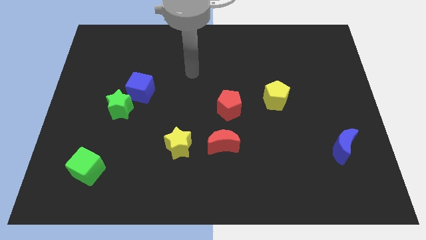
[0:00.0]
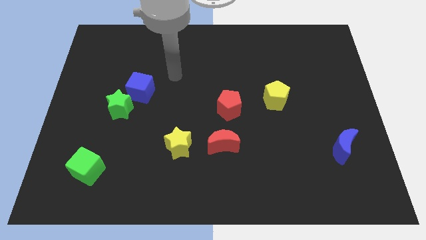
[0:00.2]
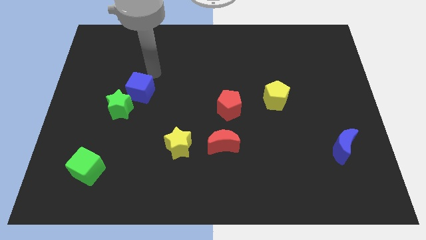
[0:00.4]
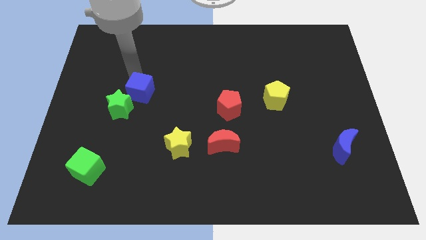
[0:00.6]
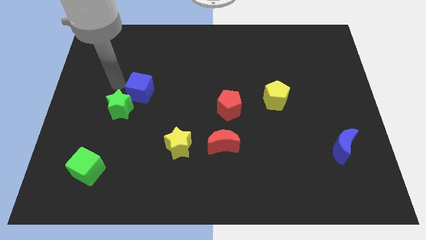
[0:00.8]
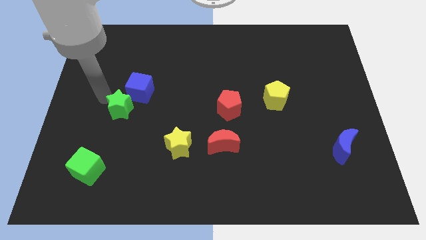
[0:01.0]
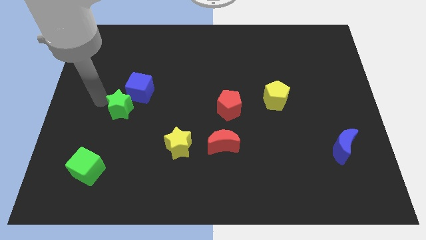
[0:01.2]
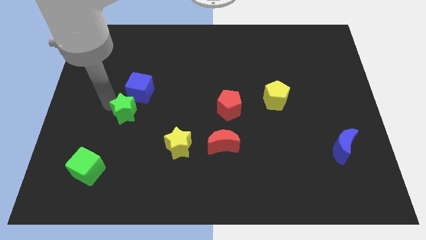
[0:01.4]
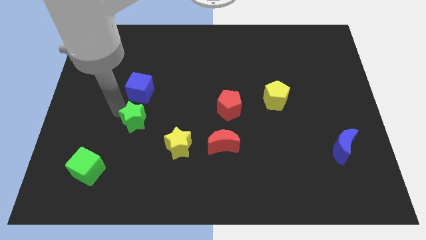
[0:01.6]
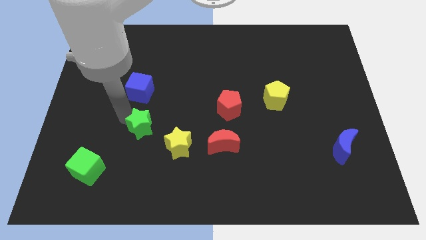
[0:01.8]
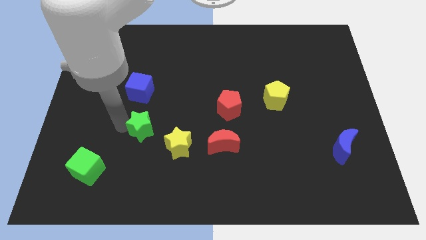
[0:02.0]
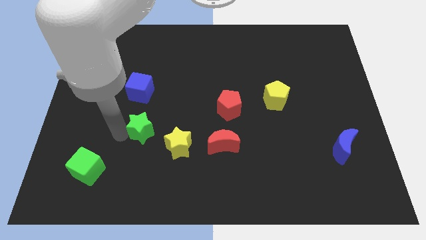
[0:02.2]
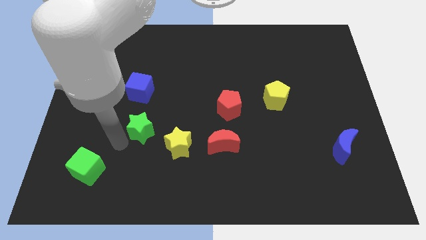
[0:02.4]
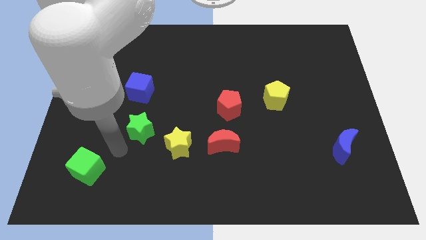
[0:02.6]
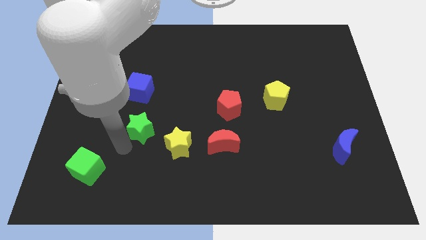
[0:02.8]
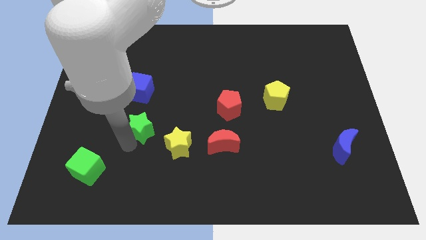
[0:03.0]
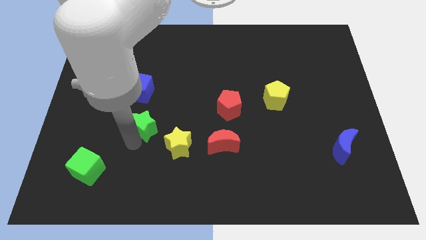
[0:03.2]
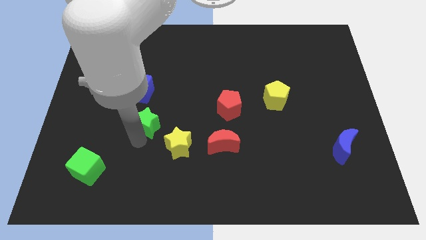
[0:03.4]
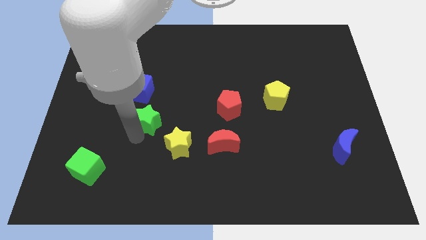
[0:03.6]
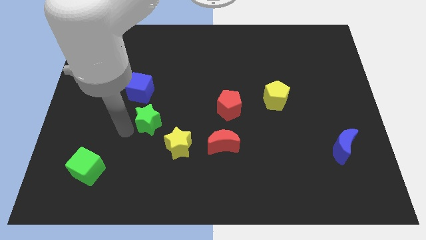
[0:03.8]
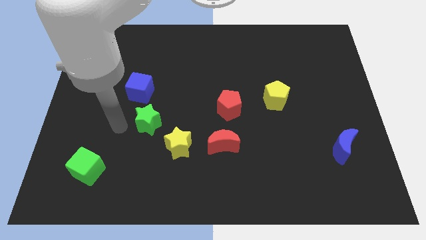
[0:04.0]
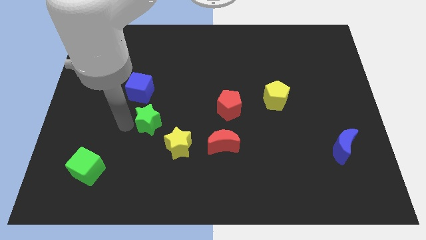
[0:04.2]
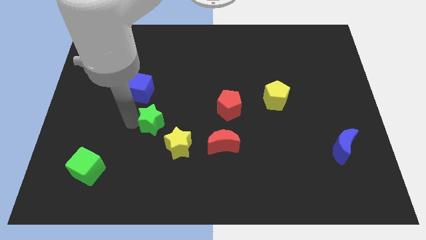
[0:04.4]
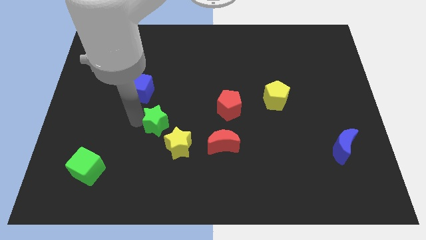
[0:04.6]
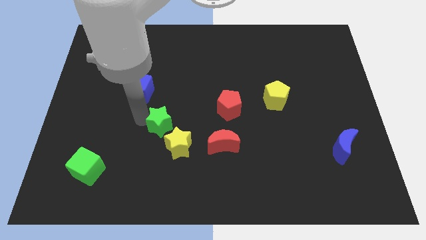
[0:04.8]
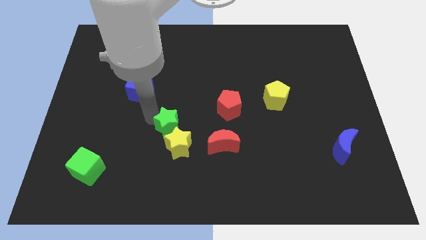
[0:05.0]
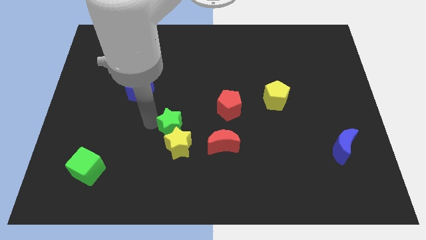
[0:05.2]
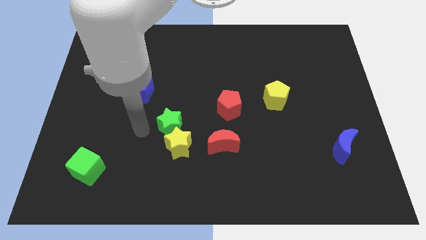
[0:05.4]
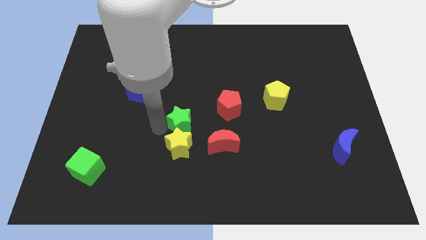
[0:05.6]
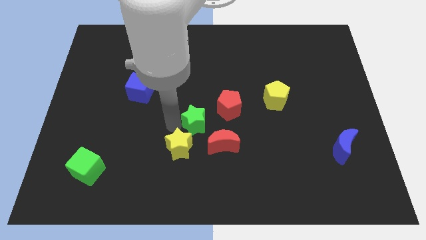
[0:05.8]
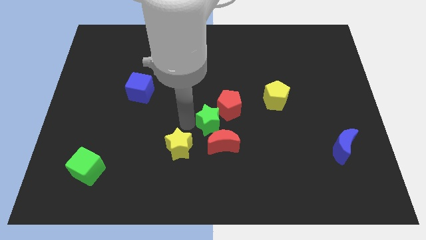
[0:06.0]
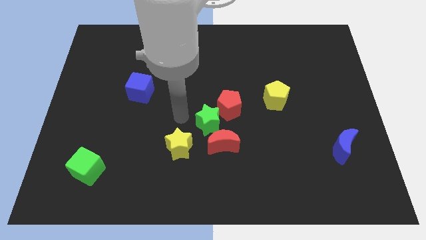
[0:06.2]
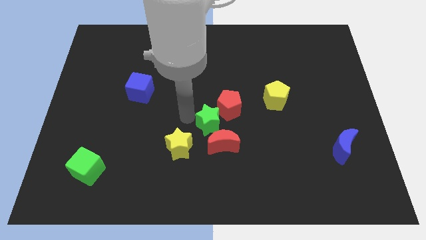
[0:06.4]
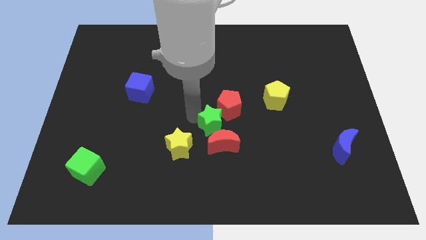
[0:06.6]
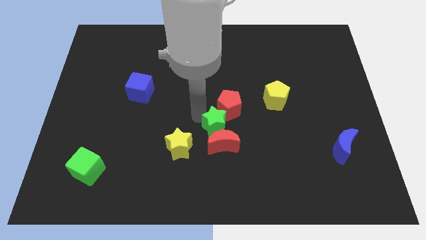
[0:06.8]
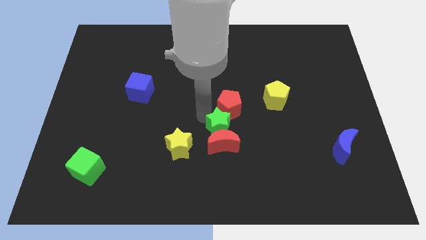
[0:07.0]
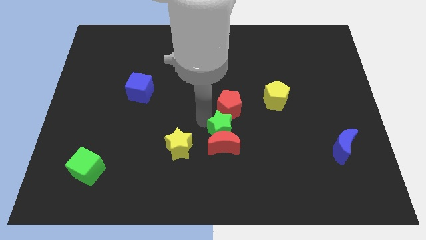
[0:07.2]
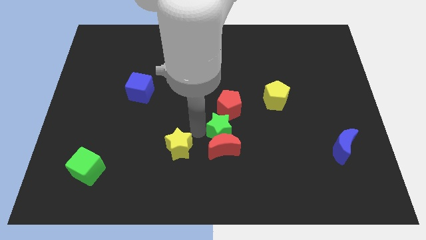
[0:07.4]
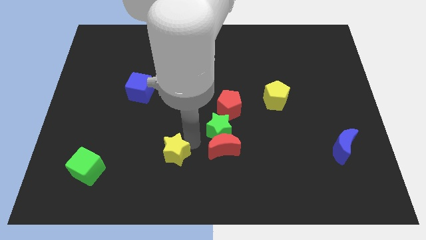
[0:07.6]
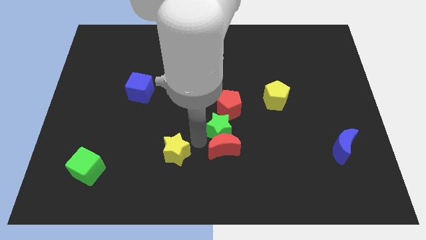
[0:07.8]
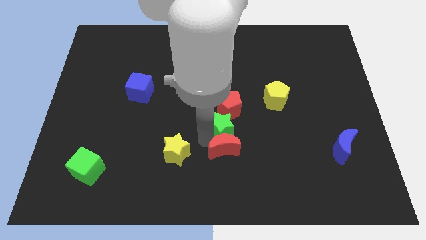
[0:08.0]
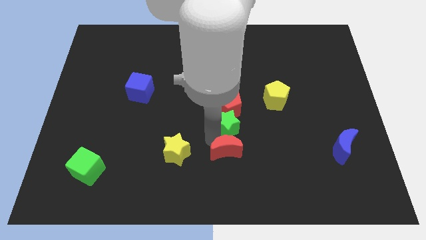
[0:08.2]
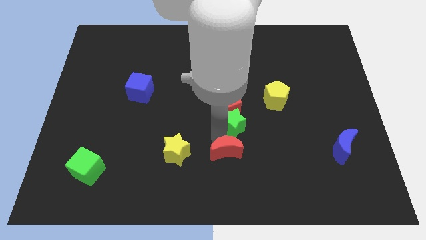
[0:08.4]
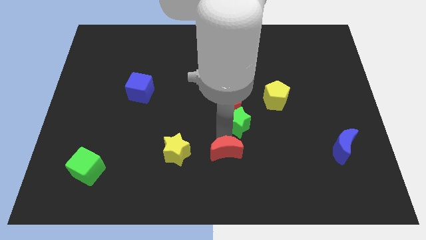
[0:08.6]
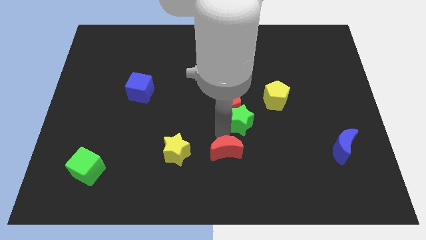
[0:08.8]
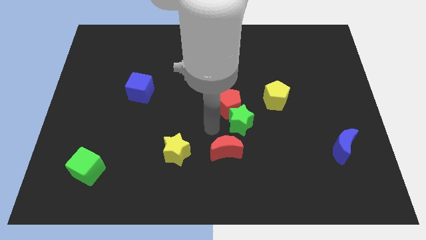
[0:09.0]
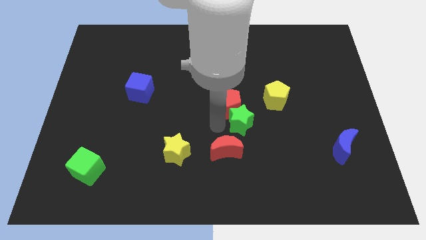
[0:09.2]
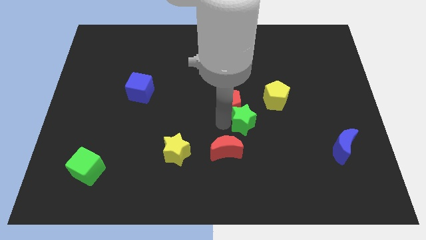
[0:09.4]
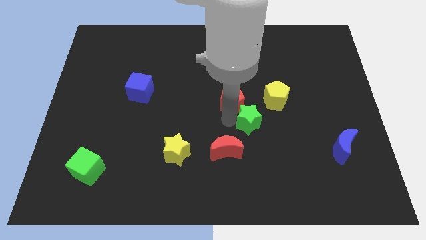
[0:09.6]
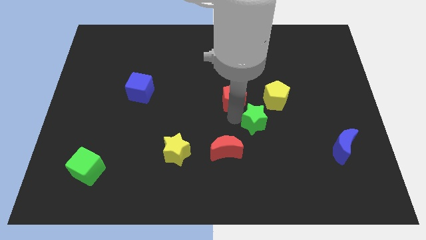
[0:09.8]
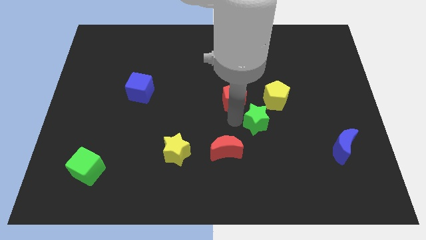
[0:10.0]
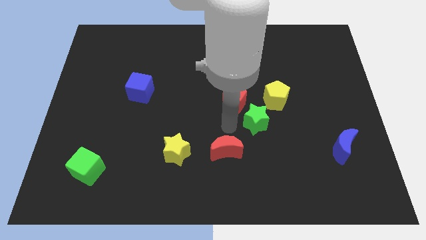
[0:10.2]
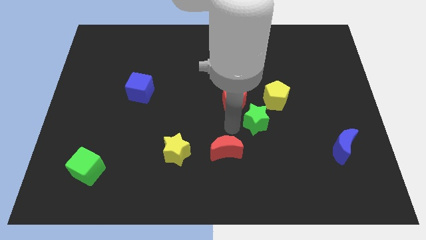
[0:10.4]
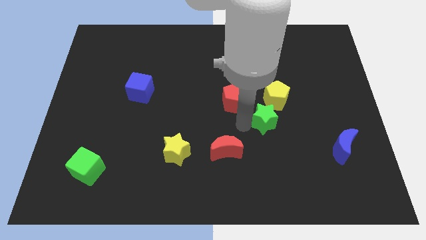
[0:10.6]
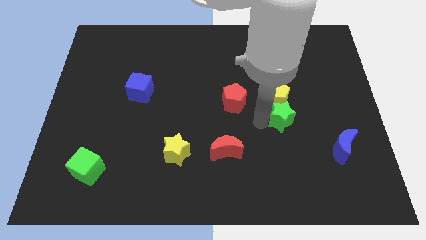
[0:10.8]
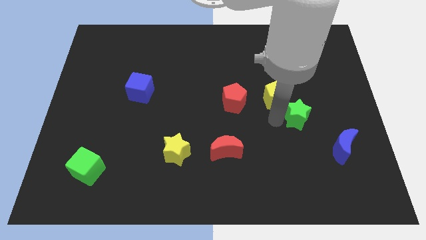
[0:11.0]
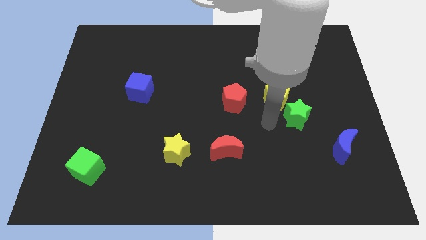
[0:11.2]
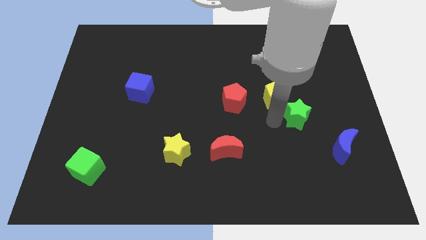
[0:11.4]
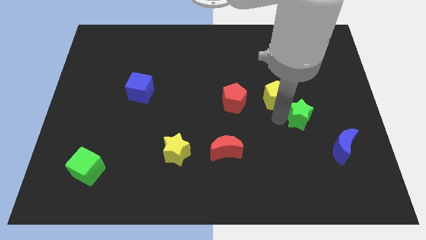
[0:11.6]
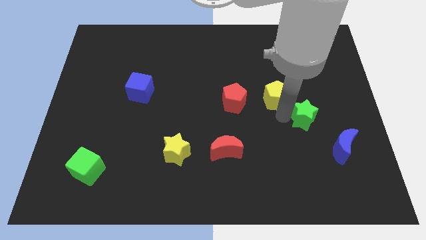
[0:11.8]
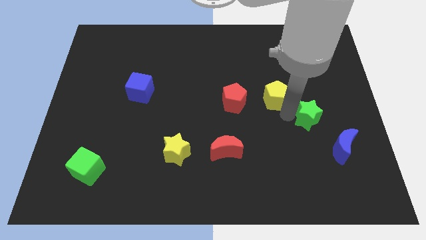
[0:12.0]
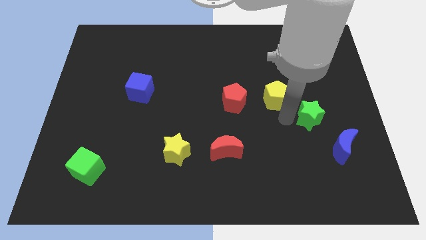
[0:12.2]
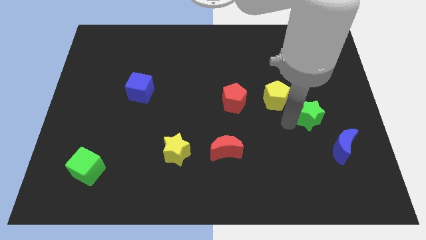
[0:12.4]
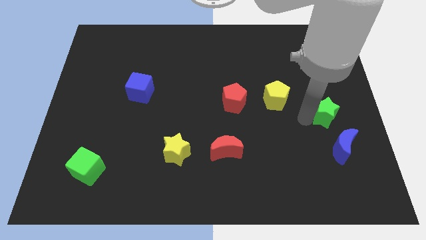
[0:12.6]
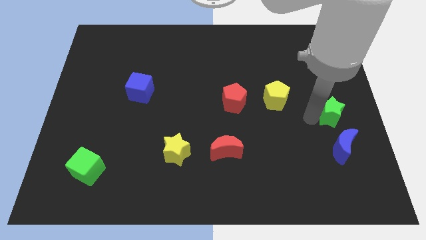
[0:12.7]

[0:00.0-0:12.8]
move the green star to the right side
